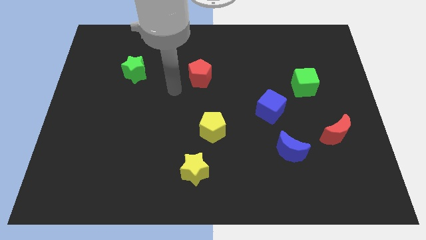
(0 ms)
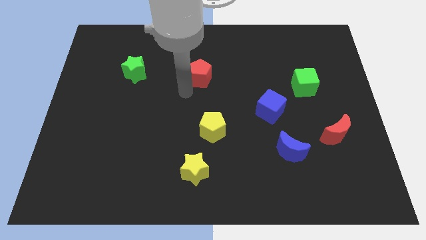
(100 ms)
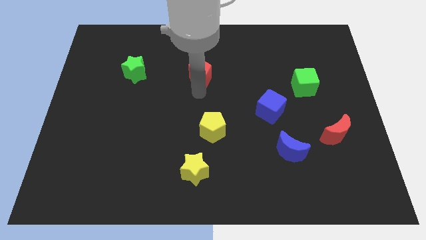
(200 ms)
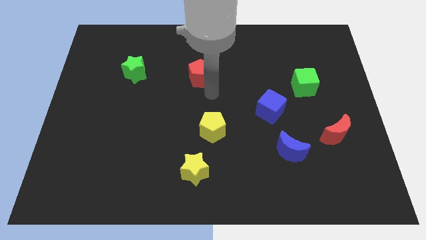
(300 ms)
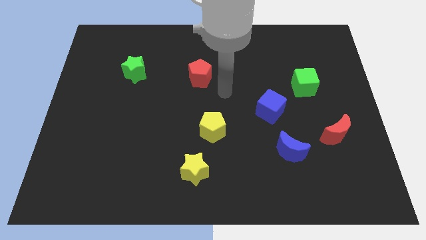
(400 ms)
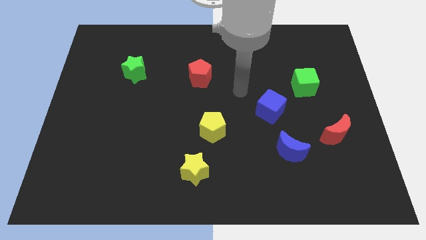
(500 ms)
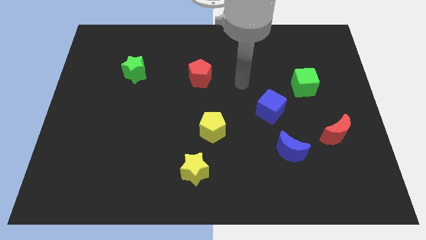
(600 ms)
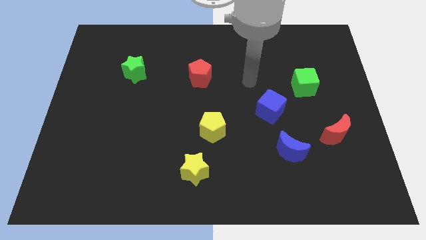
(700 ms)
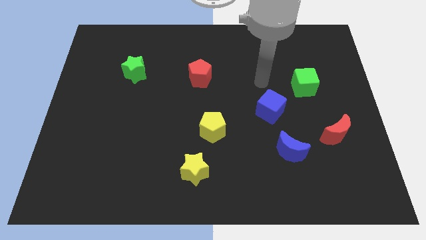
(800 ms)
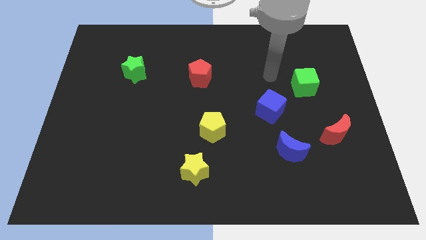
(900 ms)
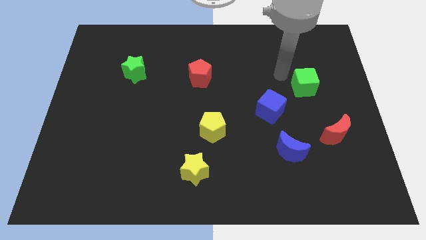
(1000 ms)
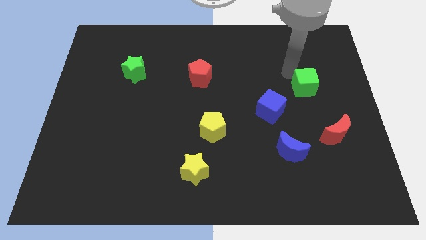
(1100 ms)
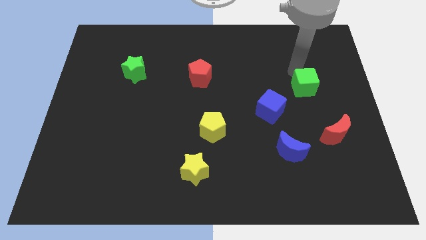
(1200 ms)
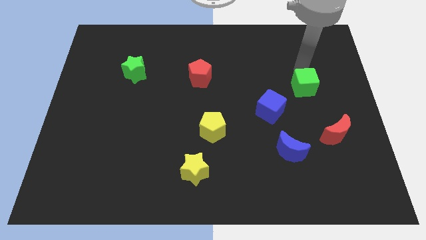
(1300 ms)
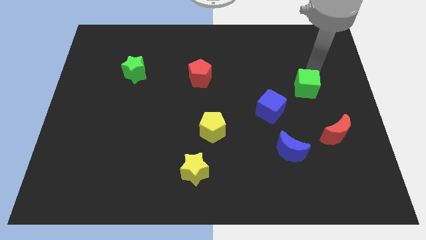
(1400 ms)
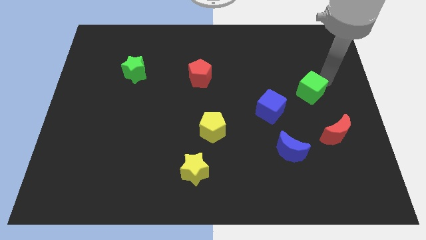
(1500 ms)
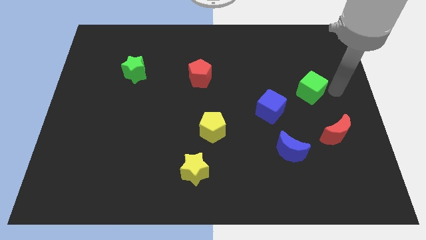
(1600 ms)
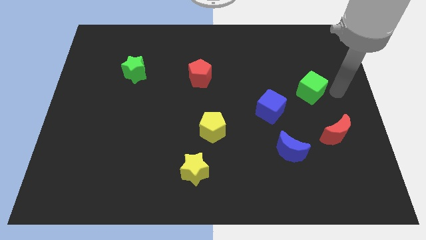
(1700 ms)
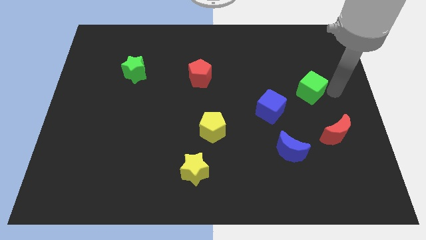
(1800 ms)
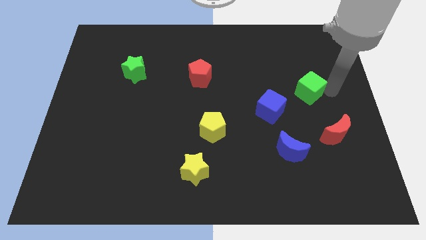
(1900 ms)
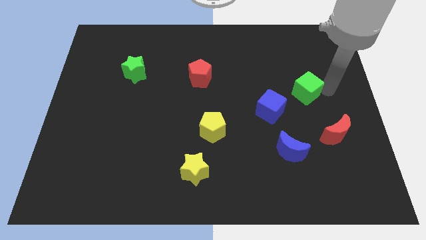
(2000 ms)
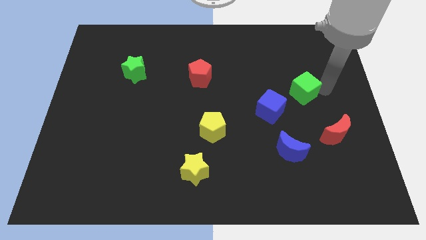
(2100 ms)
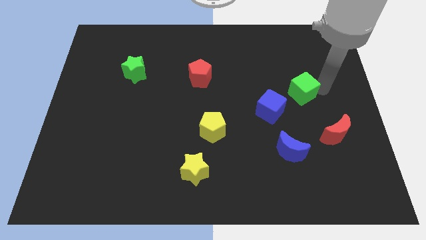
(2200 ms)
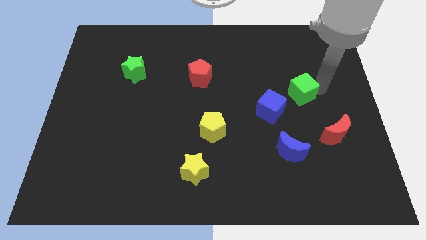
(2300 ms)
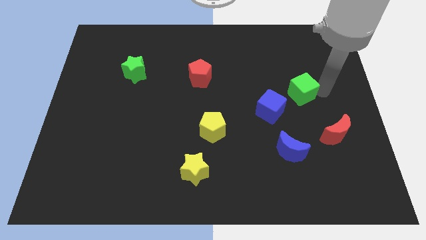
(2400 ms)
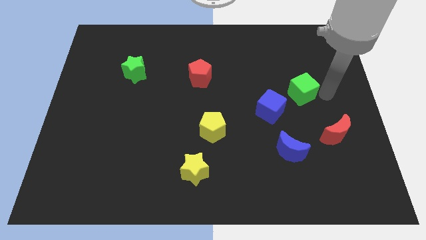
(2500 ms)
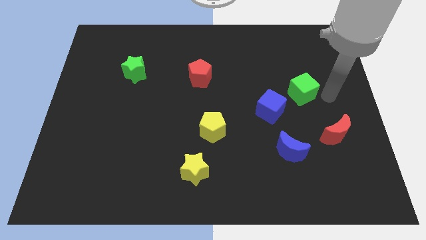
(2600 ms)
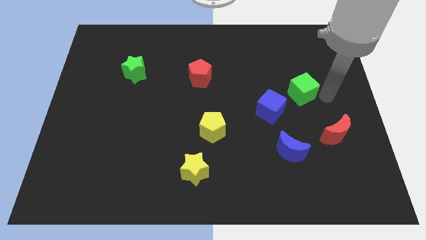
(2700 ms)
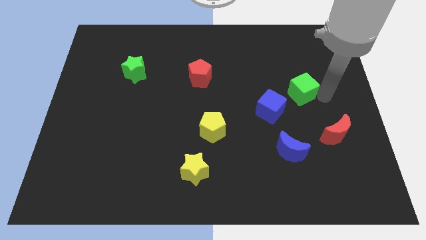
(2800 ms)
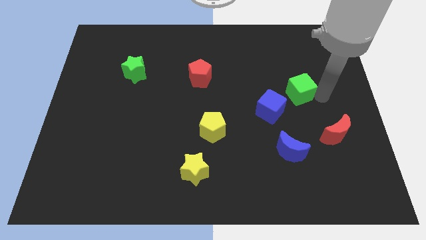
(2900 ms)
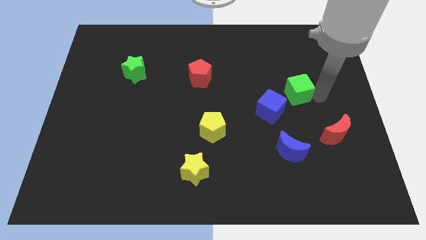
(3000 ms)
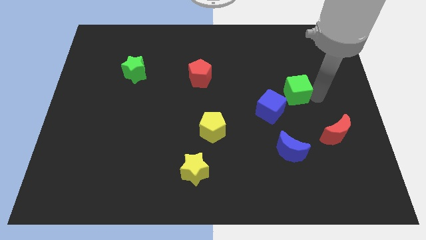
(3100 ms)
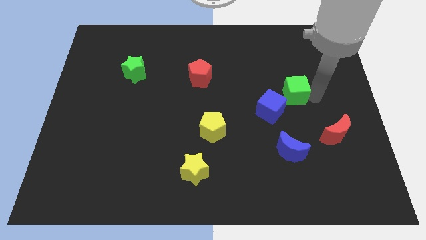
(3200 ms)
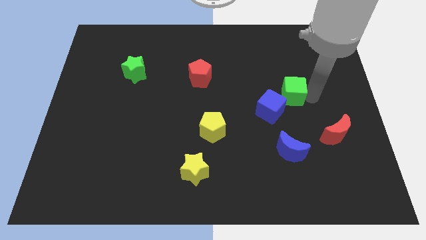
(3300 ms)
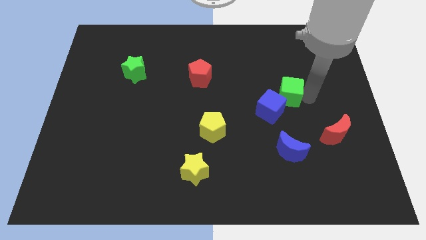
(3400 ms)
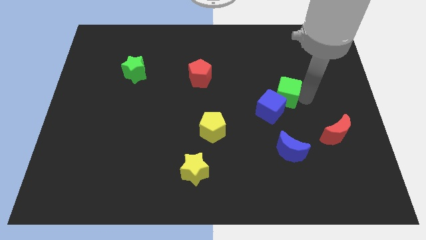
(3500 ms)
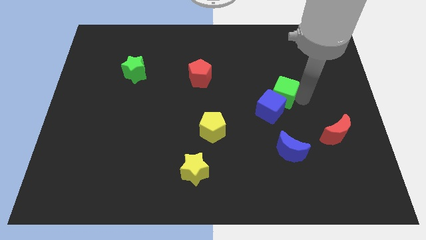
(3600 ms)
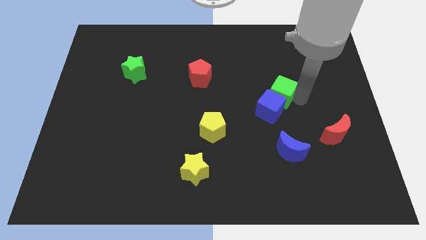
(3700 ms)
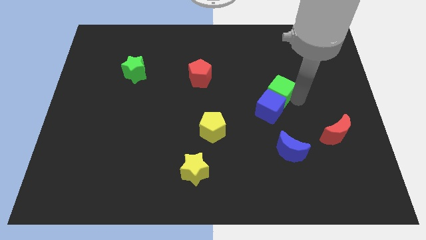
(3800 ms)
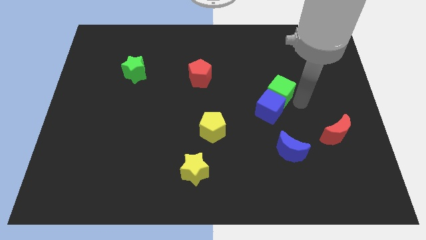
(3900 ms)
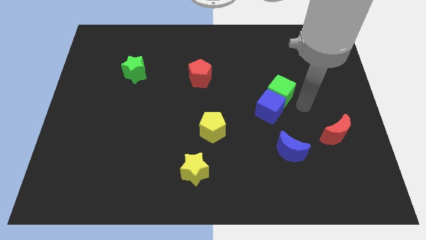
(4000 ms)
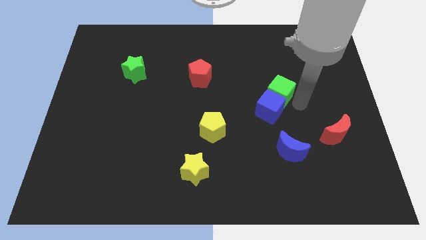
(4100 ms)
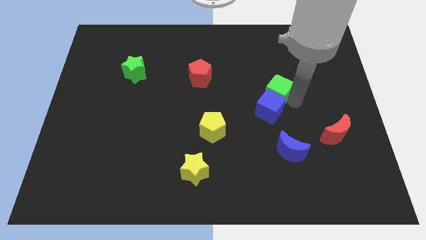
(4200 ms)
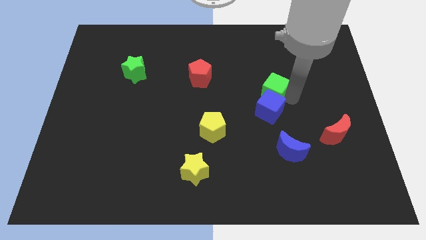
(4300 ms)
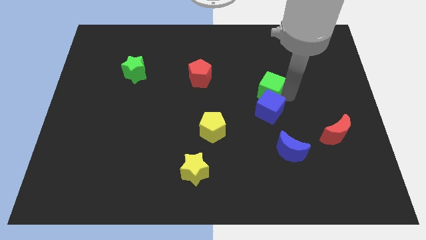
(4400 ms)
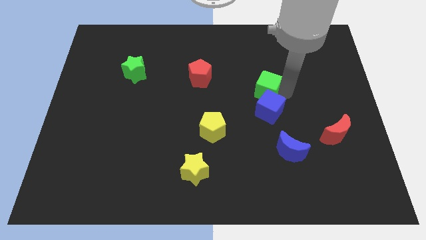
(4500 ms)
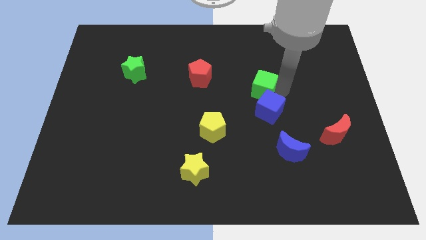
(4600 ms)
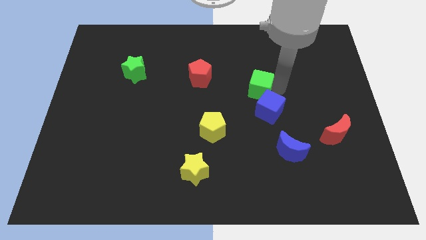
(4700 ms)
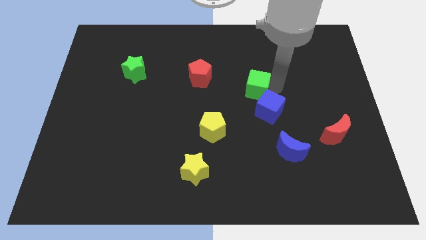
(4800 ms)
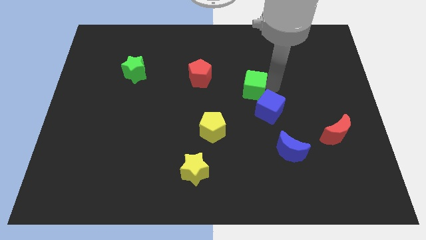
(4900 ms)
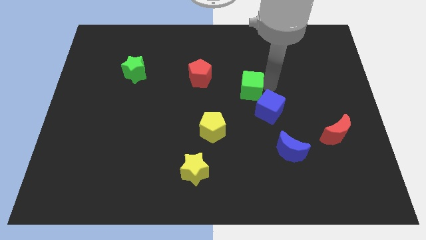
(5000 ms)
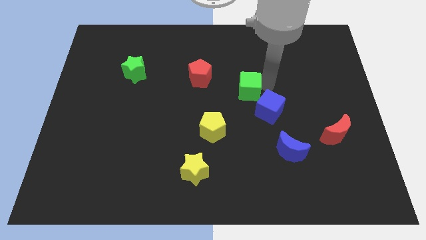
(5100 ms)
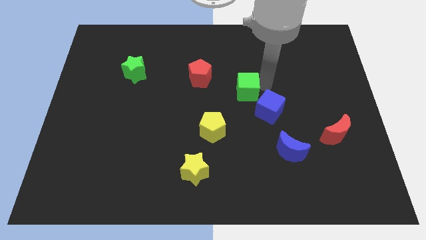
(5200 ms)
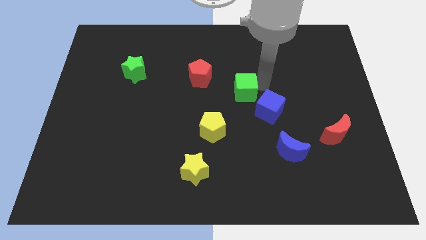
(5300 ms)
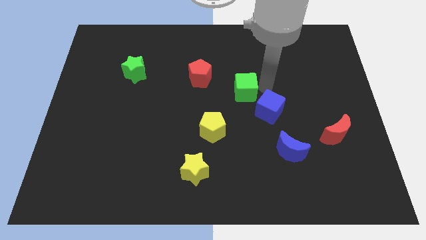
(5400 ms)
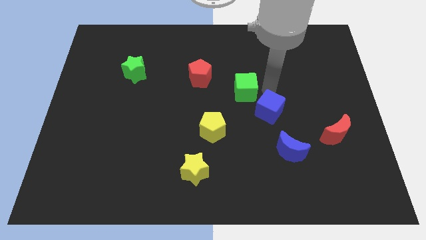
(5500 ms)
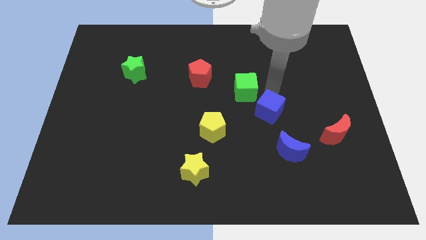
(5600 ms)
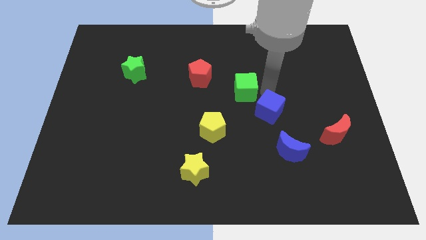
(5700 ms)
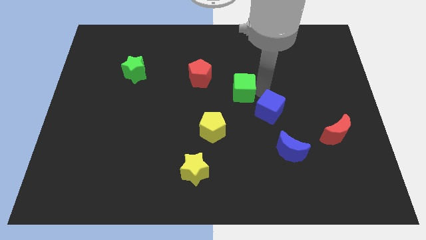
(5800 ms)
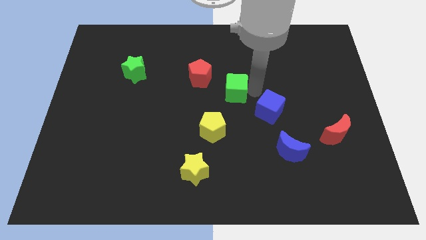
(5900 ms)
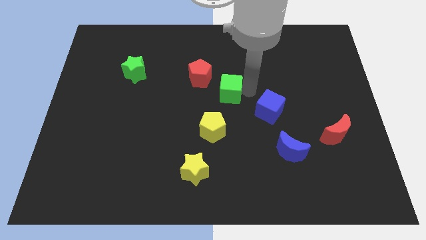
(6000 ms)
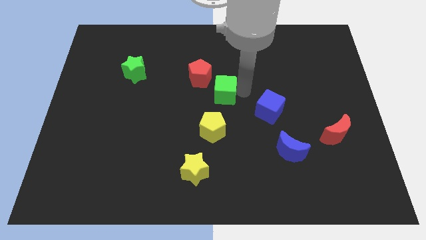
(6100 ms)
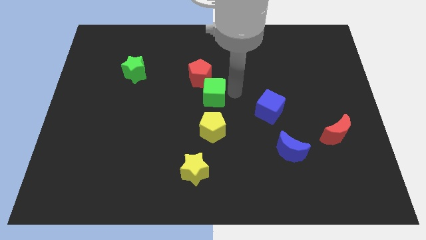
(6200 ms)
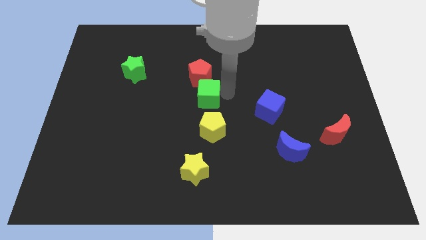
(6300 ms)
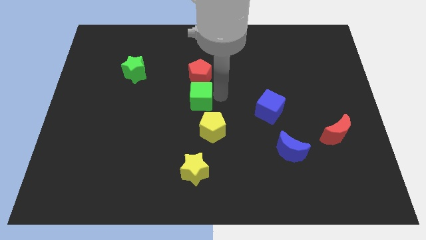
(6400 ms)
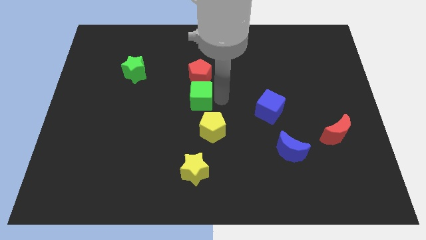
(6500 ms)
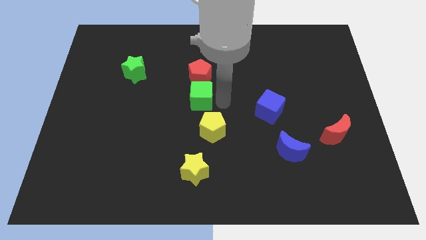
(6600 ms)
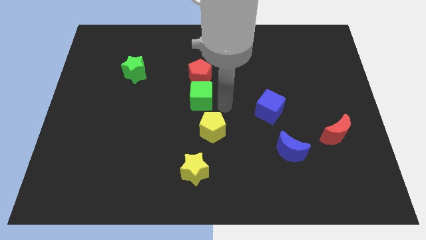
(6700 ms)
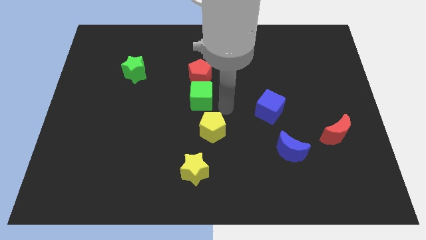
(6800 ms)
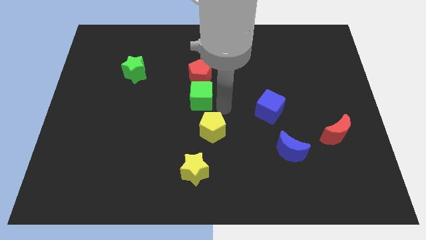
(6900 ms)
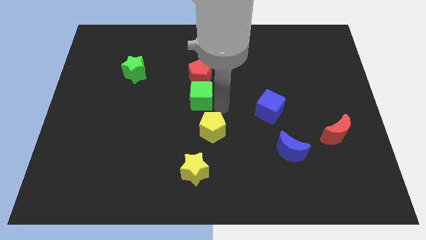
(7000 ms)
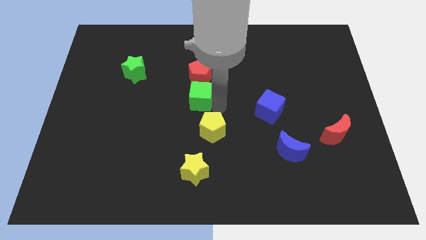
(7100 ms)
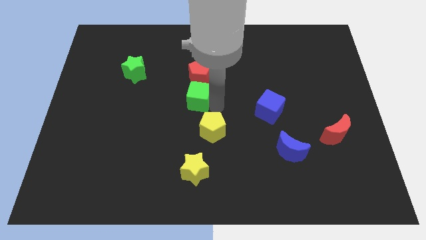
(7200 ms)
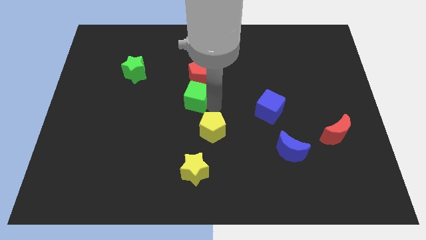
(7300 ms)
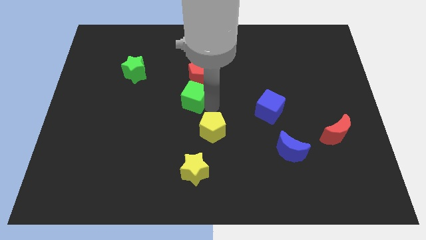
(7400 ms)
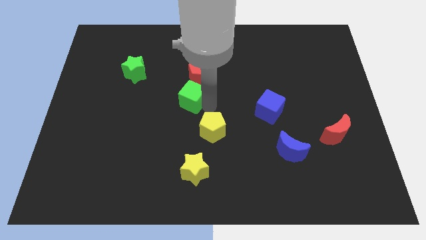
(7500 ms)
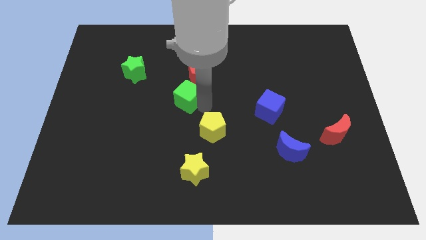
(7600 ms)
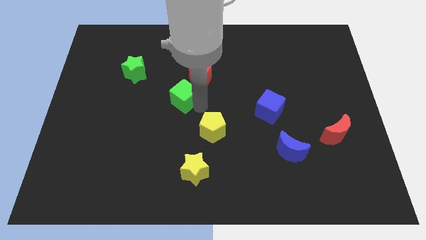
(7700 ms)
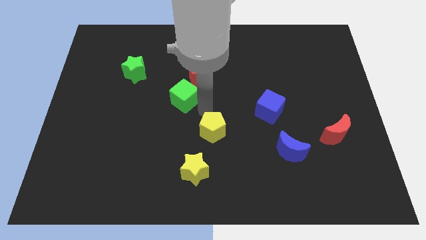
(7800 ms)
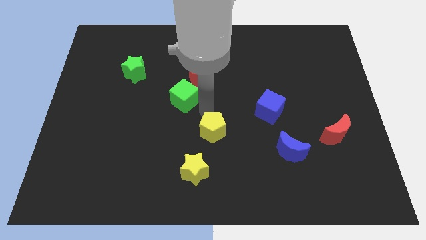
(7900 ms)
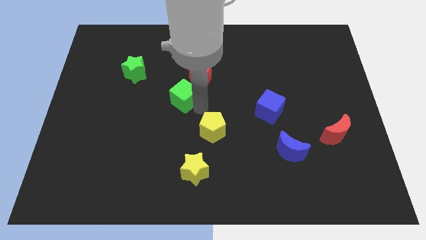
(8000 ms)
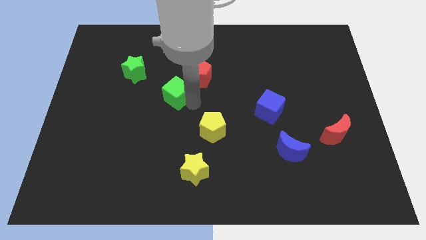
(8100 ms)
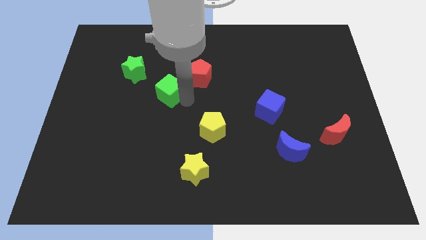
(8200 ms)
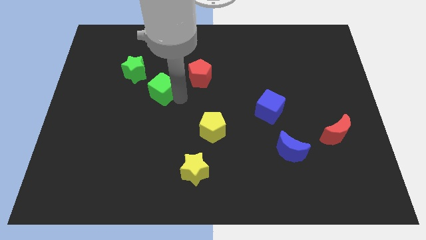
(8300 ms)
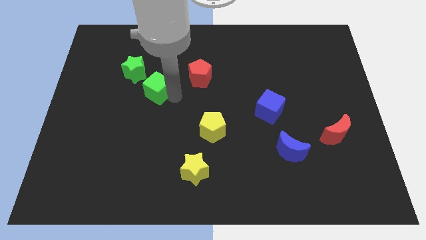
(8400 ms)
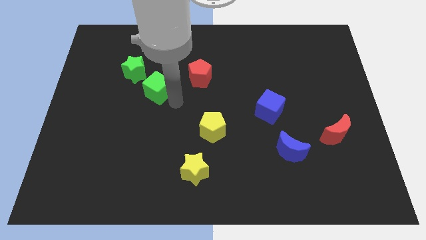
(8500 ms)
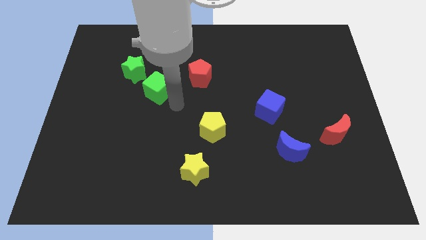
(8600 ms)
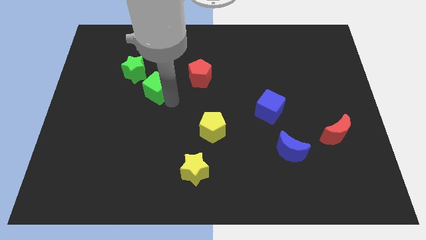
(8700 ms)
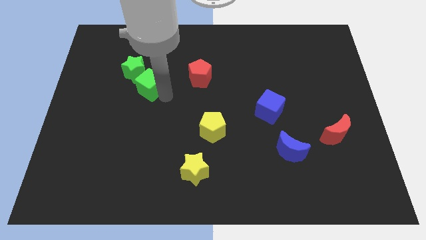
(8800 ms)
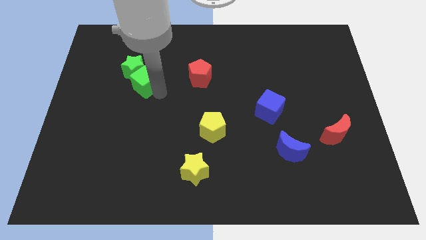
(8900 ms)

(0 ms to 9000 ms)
slide the green cube close to the green star
